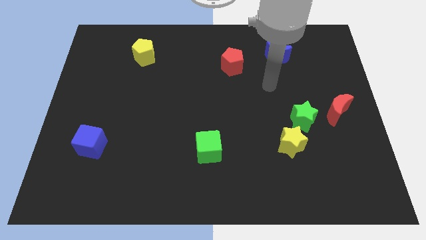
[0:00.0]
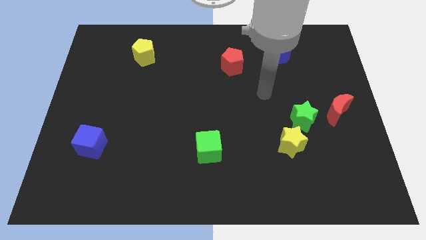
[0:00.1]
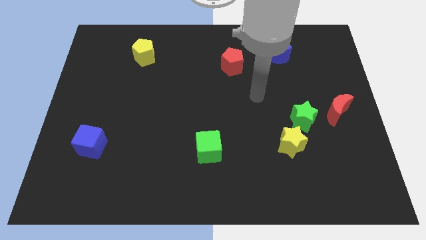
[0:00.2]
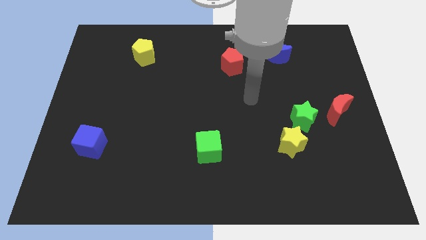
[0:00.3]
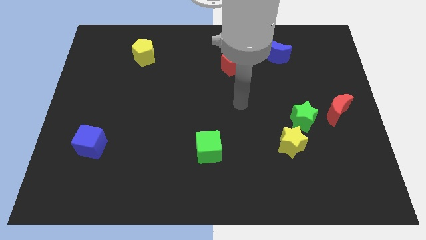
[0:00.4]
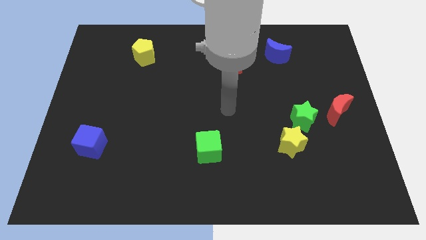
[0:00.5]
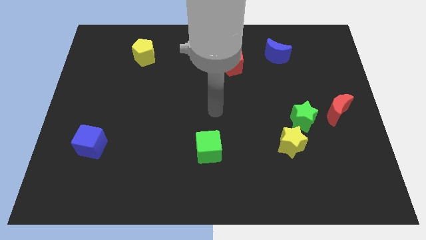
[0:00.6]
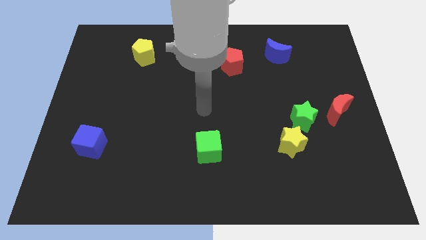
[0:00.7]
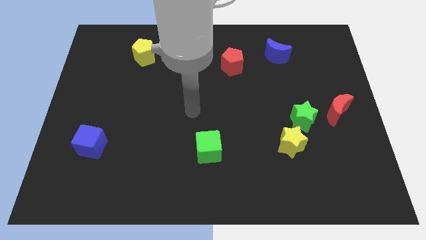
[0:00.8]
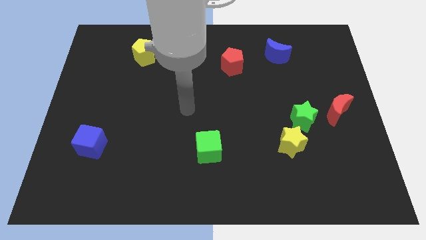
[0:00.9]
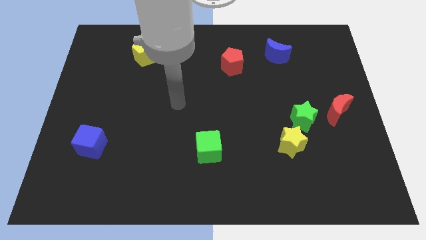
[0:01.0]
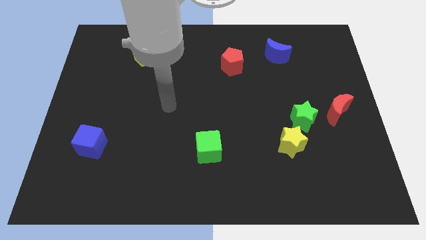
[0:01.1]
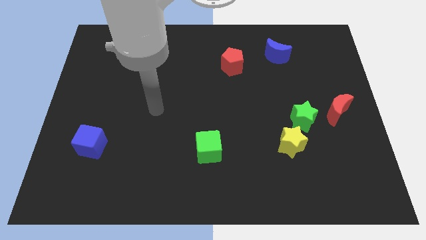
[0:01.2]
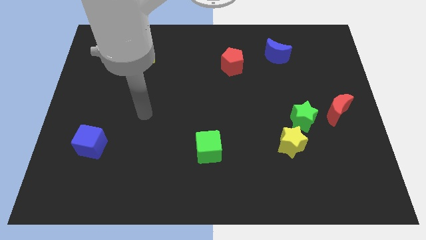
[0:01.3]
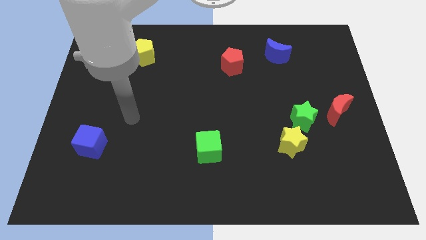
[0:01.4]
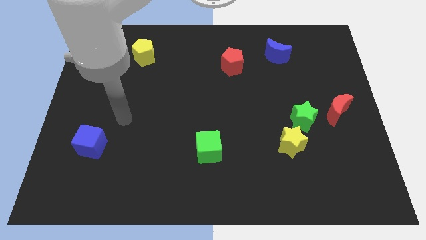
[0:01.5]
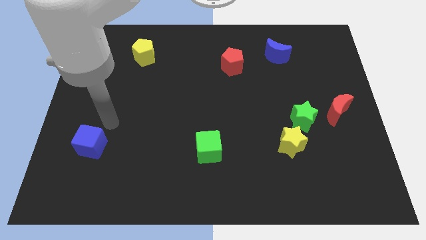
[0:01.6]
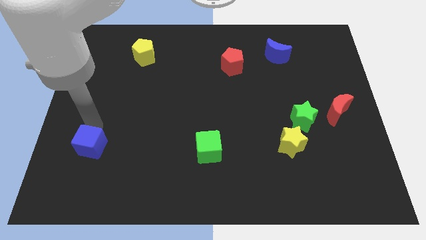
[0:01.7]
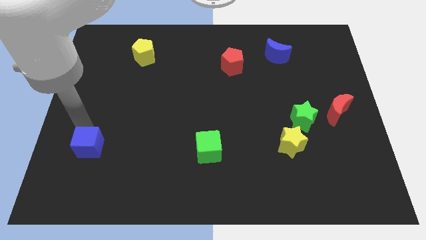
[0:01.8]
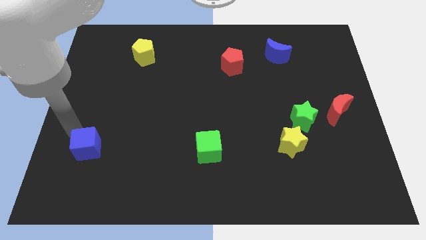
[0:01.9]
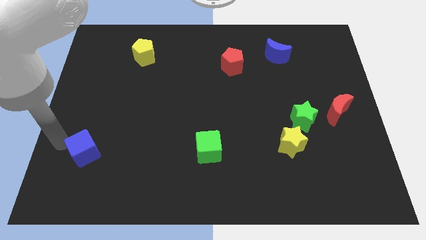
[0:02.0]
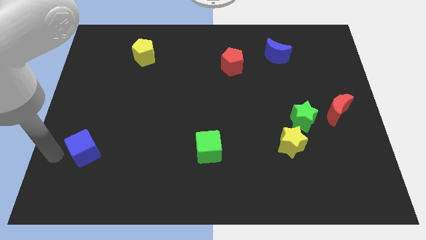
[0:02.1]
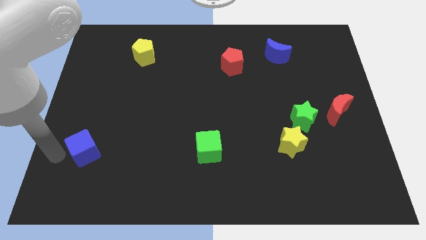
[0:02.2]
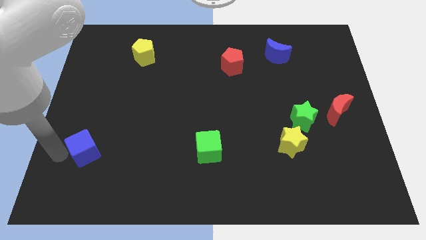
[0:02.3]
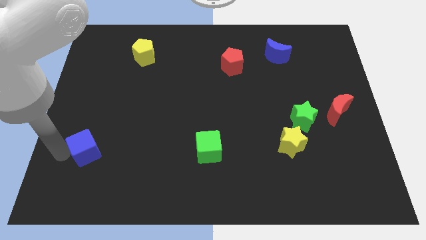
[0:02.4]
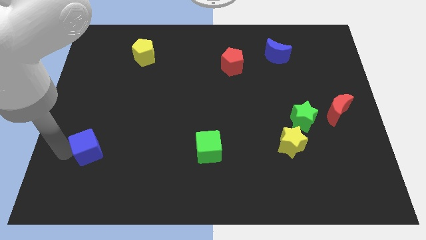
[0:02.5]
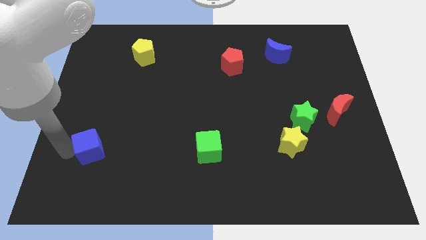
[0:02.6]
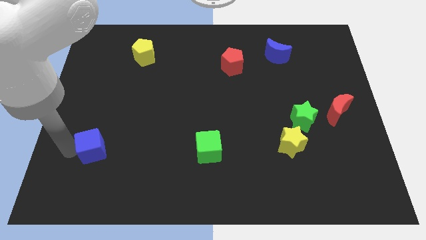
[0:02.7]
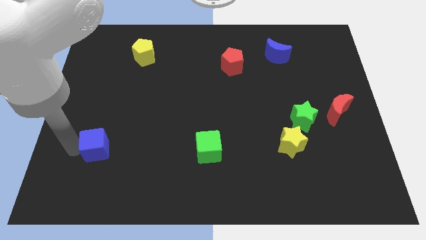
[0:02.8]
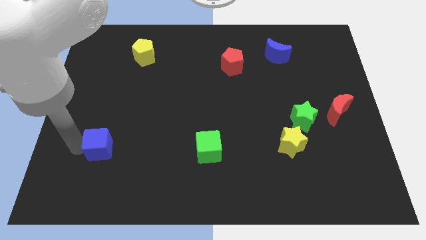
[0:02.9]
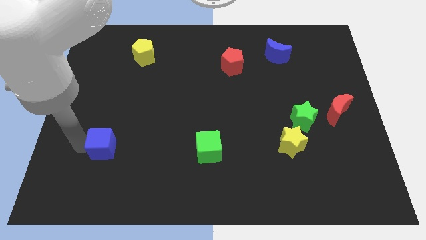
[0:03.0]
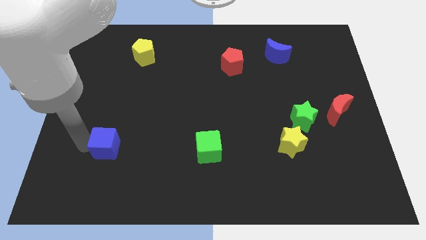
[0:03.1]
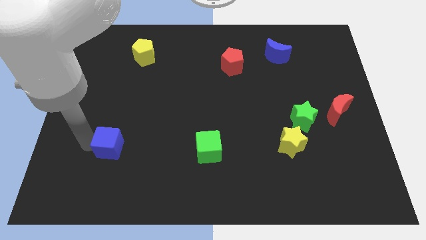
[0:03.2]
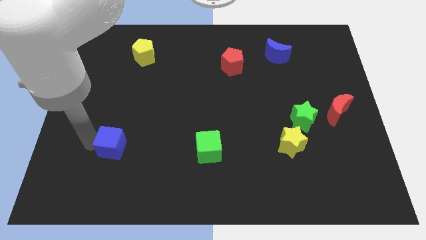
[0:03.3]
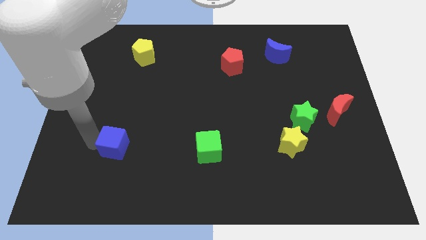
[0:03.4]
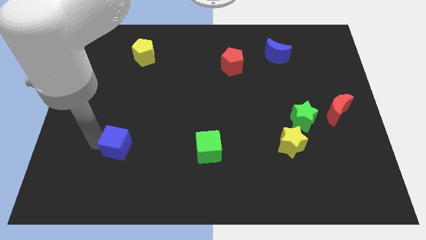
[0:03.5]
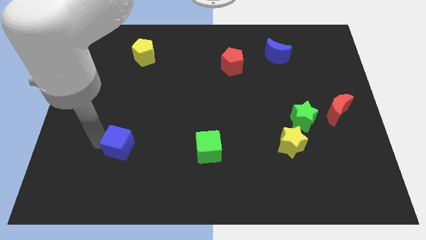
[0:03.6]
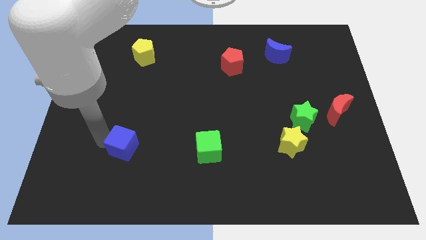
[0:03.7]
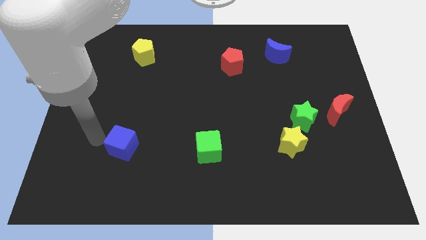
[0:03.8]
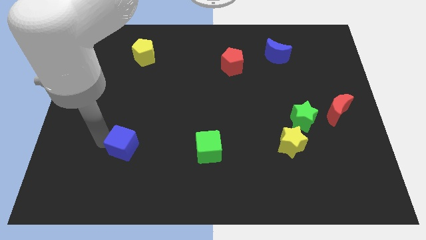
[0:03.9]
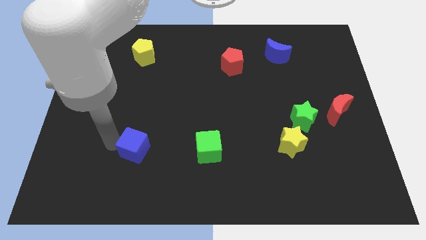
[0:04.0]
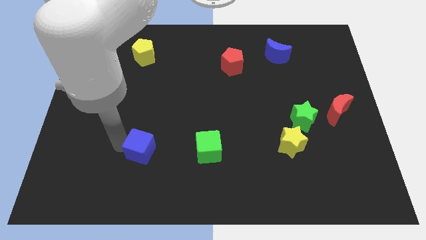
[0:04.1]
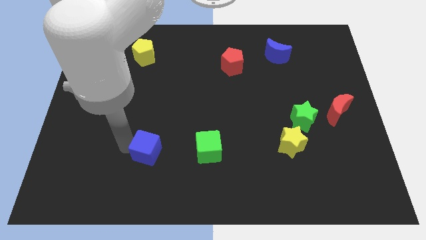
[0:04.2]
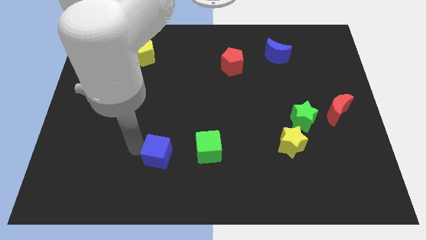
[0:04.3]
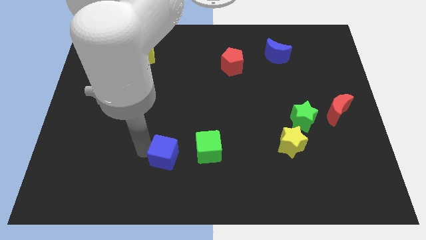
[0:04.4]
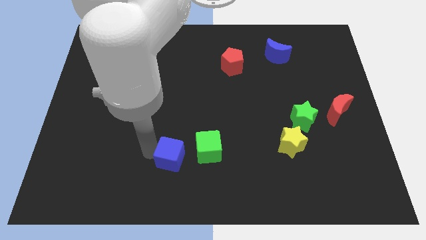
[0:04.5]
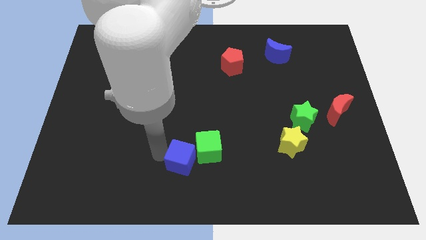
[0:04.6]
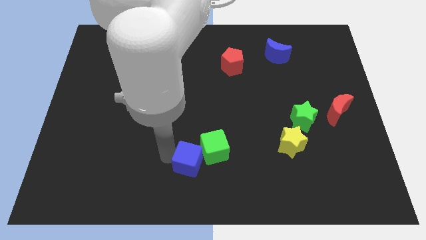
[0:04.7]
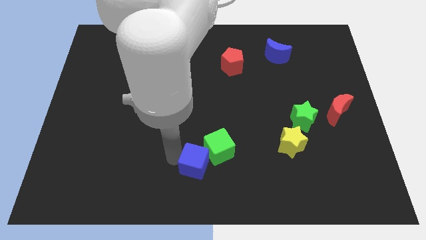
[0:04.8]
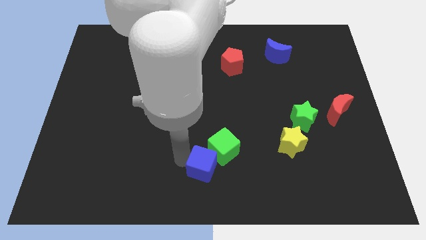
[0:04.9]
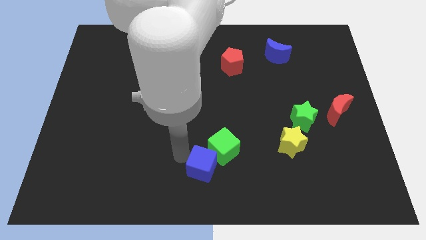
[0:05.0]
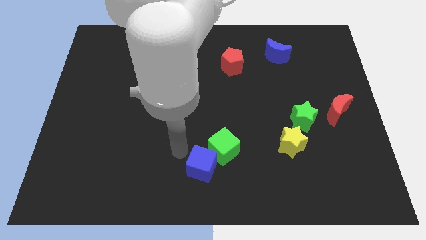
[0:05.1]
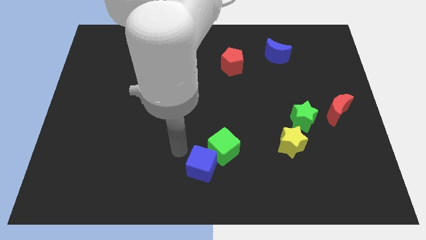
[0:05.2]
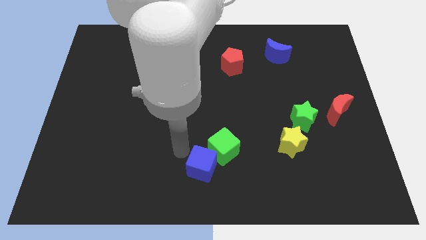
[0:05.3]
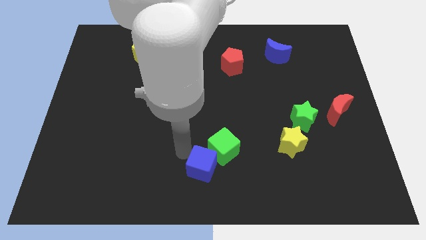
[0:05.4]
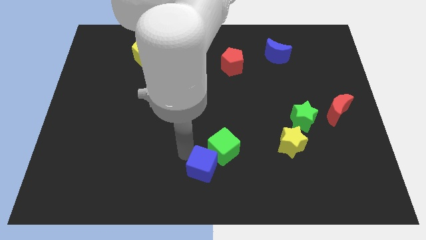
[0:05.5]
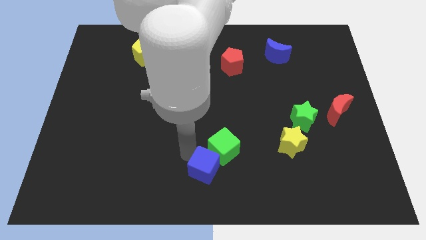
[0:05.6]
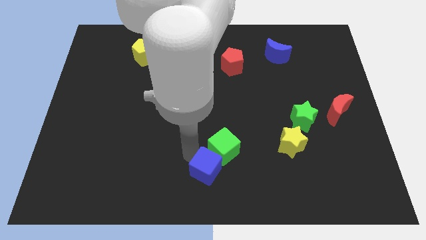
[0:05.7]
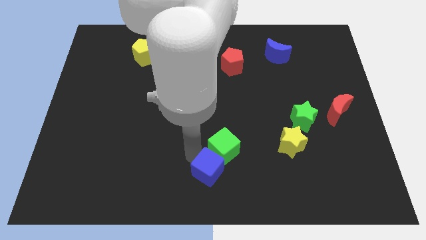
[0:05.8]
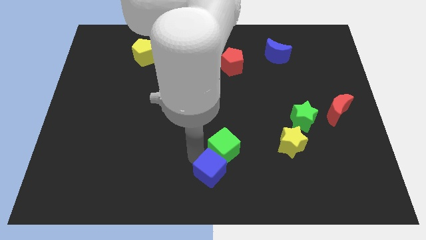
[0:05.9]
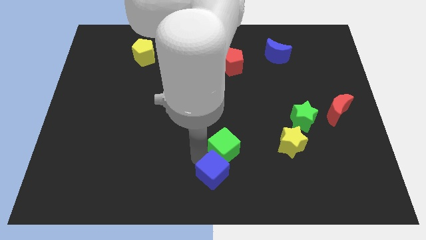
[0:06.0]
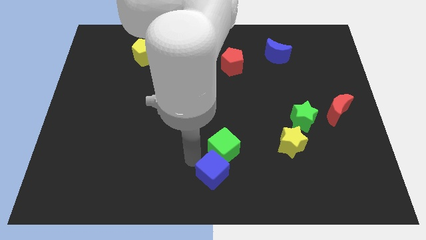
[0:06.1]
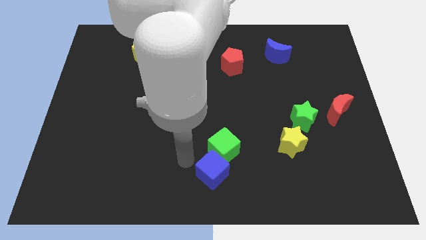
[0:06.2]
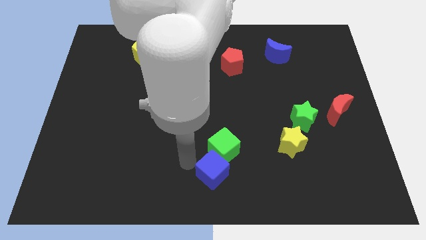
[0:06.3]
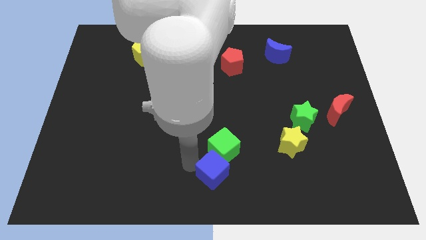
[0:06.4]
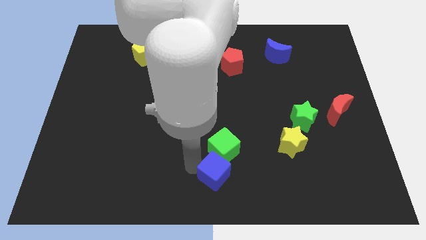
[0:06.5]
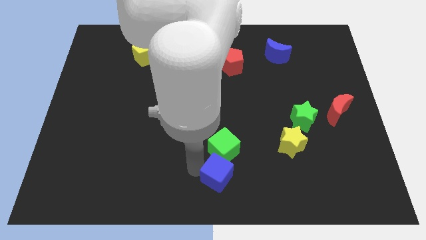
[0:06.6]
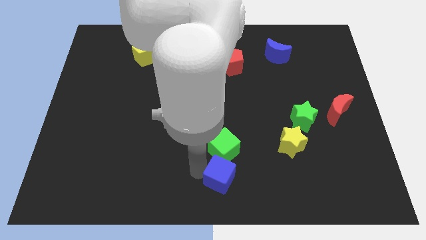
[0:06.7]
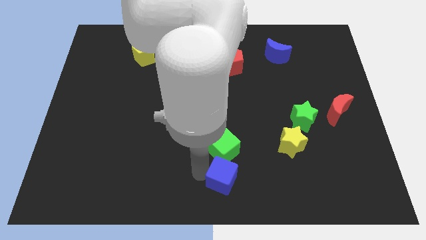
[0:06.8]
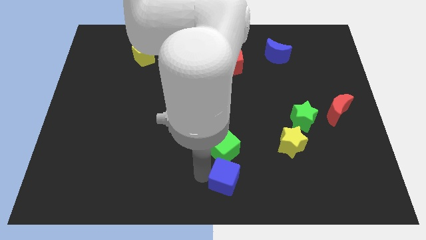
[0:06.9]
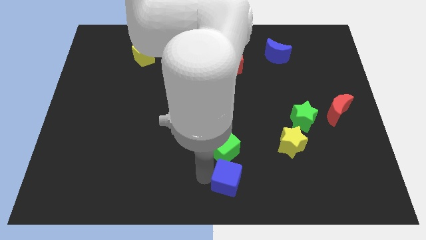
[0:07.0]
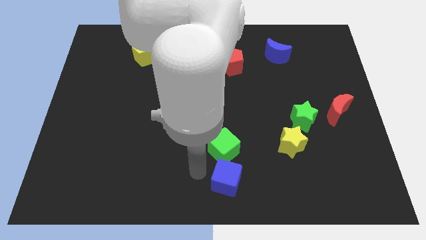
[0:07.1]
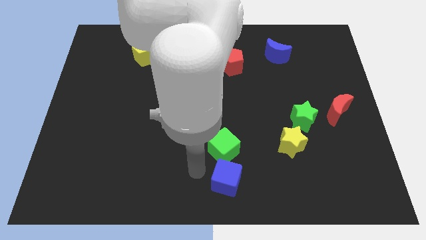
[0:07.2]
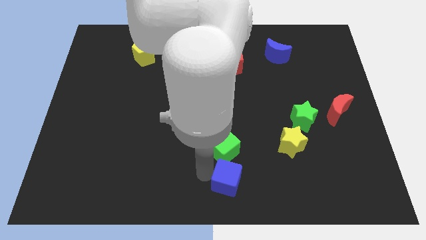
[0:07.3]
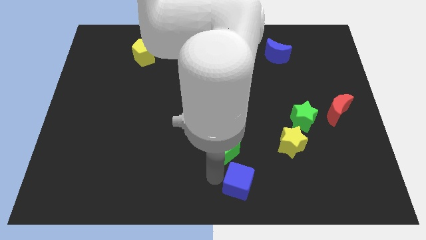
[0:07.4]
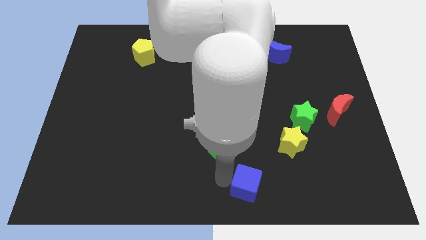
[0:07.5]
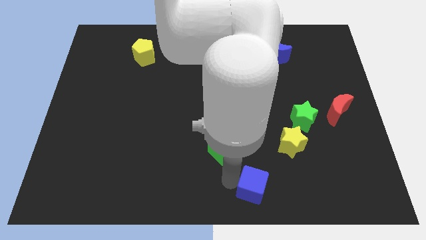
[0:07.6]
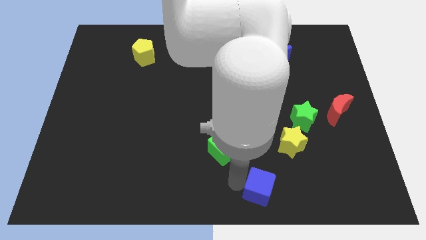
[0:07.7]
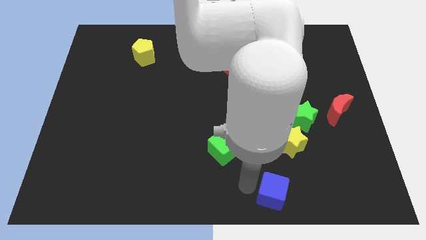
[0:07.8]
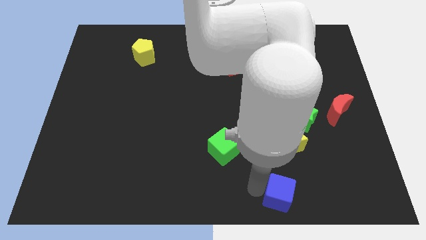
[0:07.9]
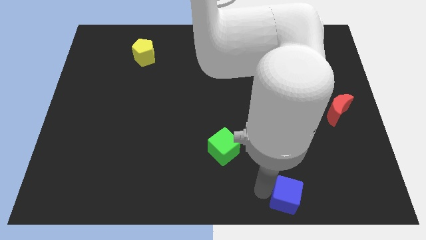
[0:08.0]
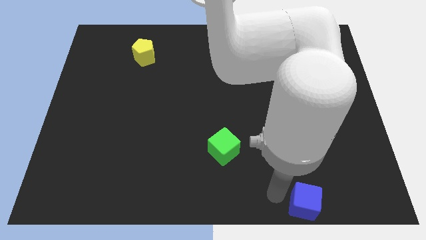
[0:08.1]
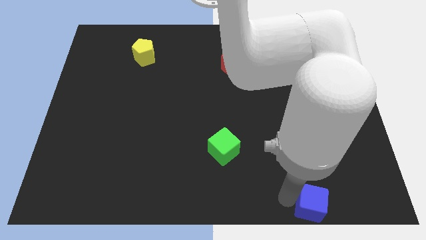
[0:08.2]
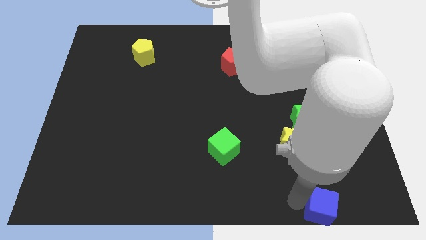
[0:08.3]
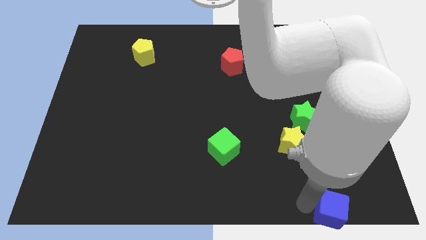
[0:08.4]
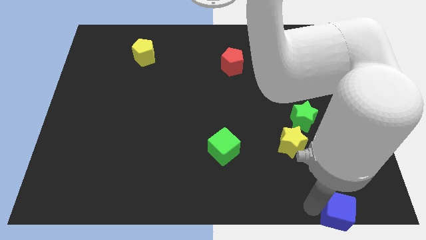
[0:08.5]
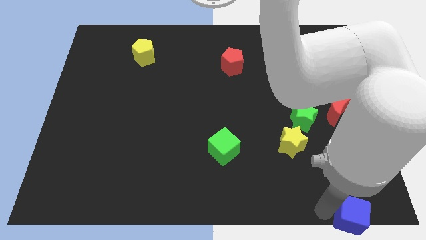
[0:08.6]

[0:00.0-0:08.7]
move the blue cube to the lower right corner
